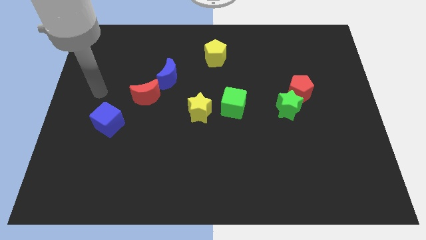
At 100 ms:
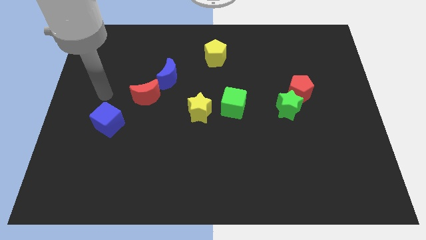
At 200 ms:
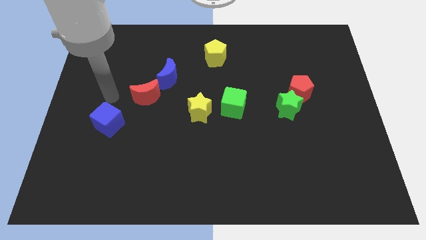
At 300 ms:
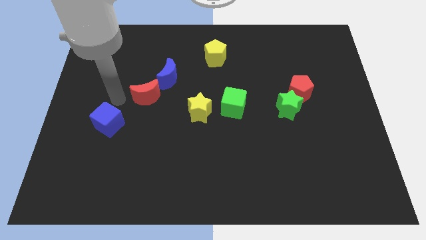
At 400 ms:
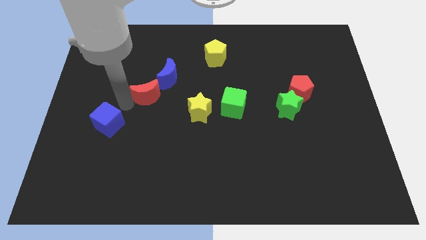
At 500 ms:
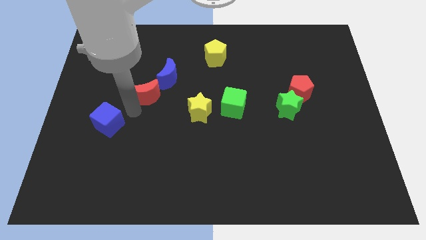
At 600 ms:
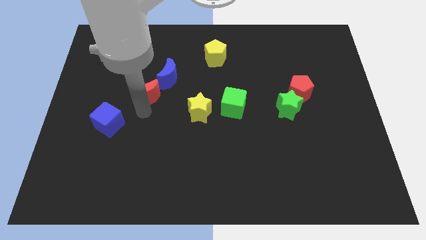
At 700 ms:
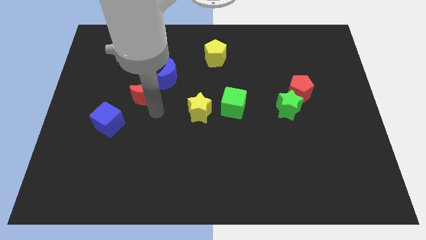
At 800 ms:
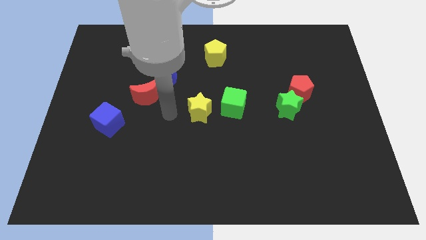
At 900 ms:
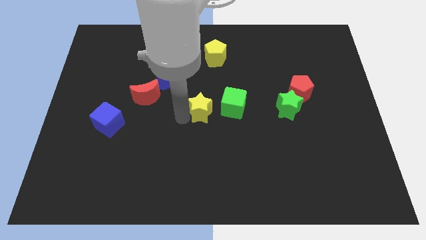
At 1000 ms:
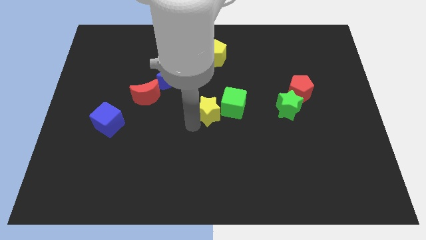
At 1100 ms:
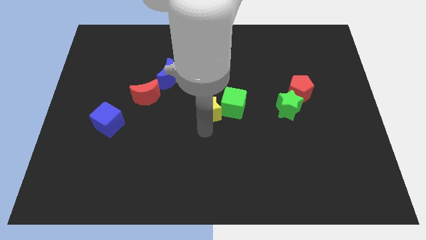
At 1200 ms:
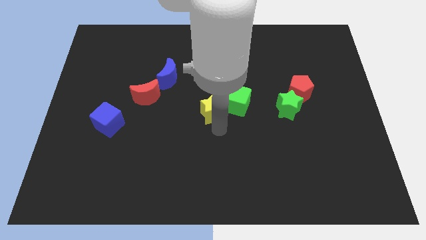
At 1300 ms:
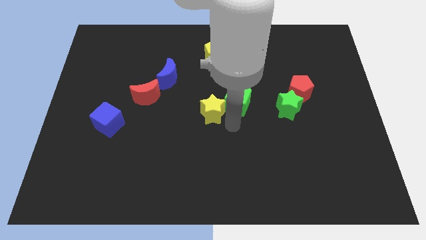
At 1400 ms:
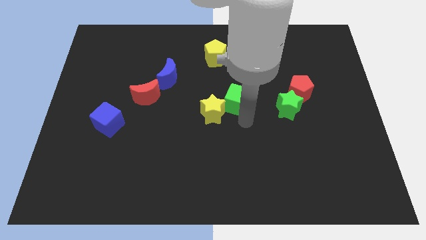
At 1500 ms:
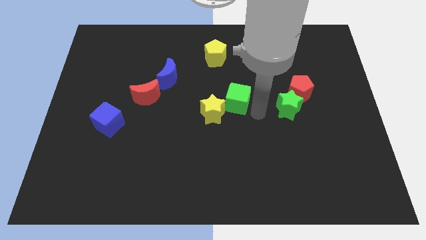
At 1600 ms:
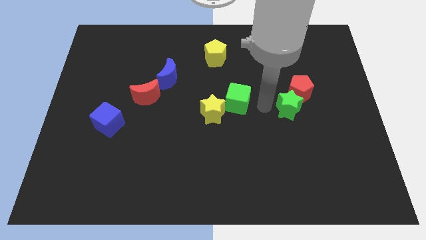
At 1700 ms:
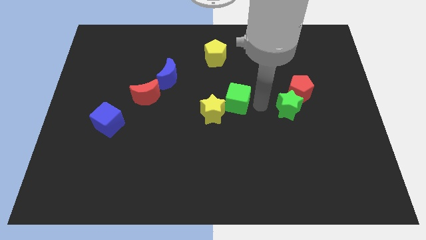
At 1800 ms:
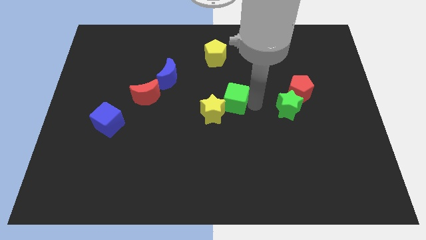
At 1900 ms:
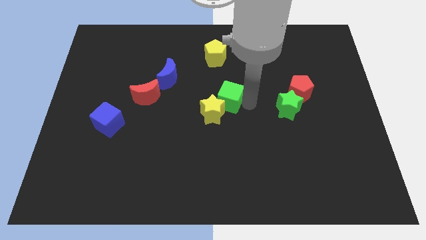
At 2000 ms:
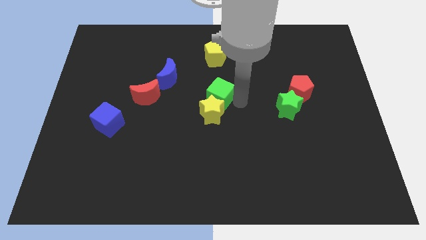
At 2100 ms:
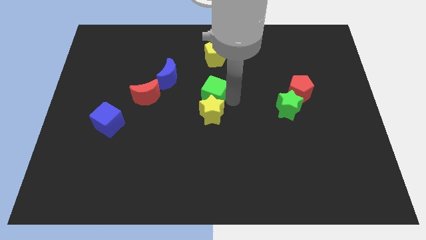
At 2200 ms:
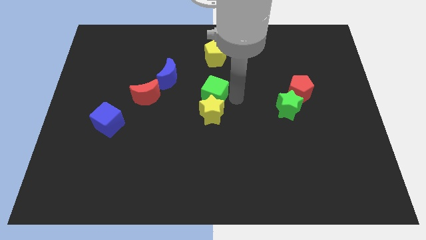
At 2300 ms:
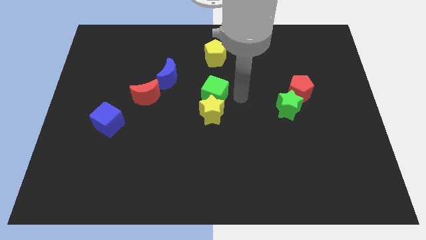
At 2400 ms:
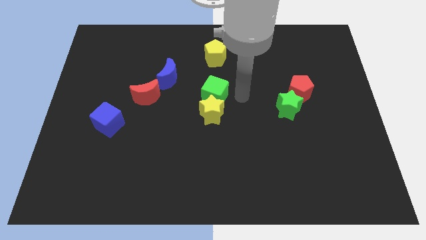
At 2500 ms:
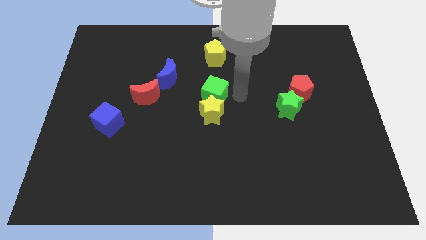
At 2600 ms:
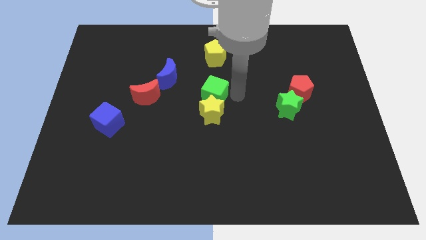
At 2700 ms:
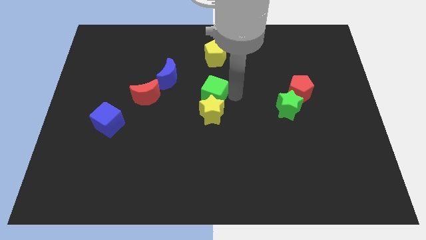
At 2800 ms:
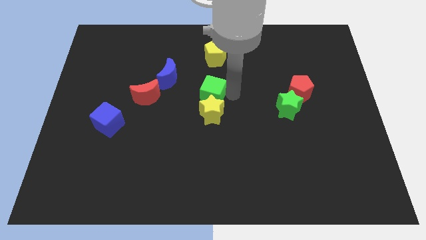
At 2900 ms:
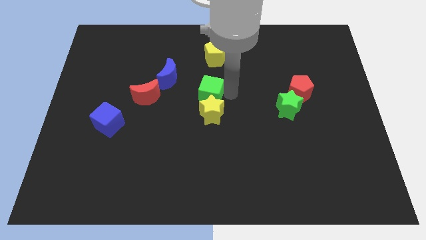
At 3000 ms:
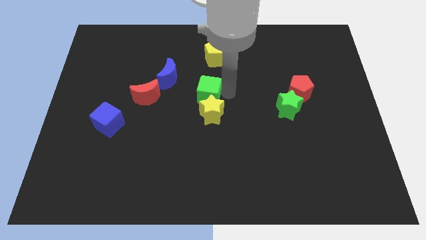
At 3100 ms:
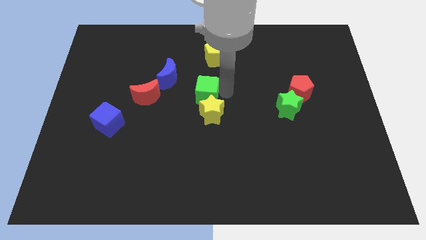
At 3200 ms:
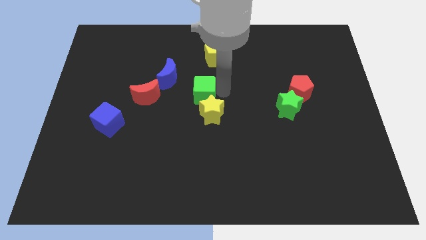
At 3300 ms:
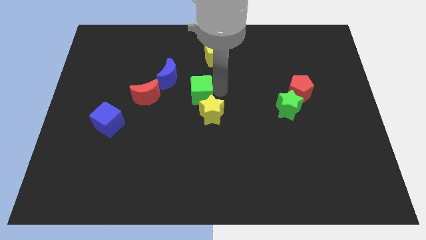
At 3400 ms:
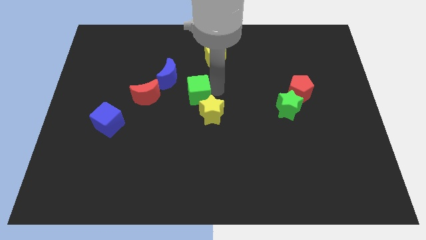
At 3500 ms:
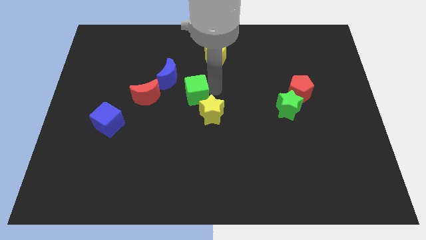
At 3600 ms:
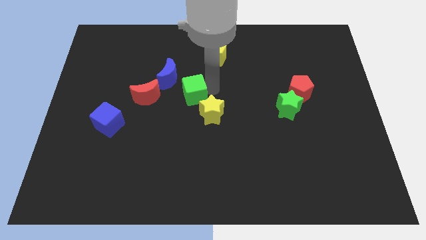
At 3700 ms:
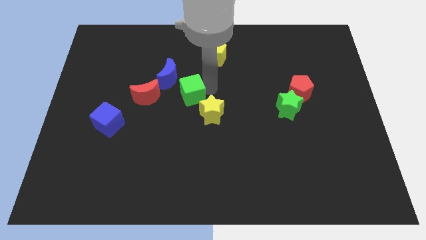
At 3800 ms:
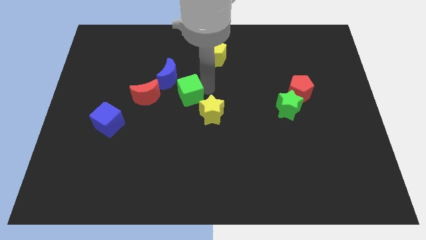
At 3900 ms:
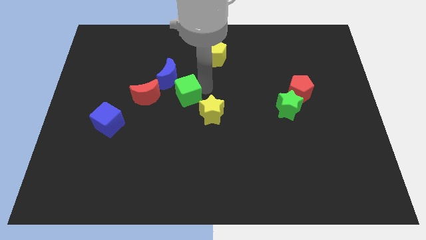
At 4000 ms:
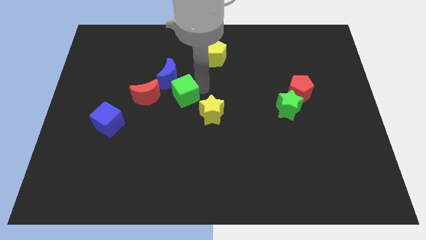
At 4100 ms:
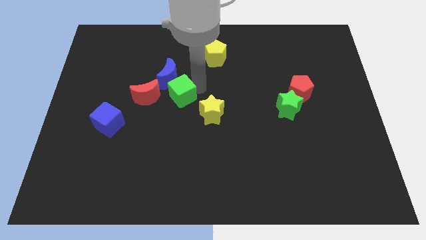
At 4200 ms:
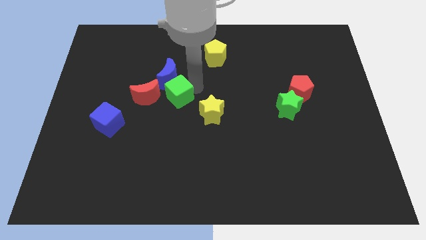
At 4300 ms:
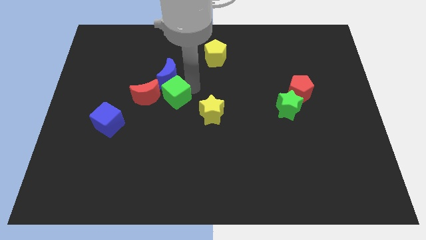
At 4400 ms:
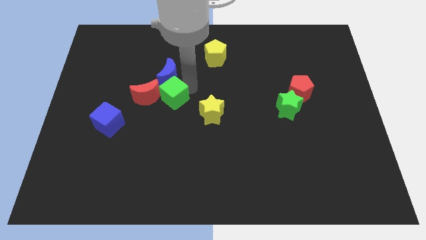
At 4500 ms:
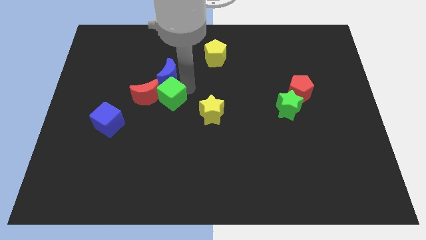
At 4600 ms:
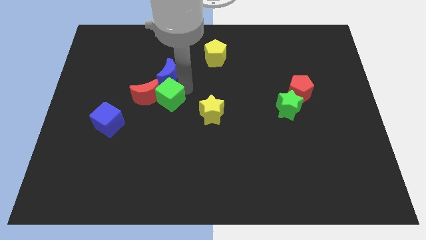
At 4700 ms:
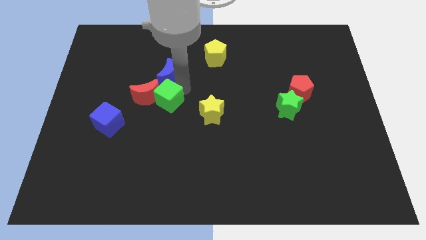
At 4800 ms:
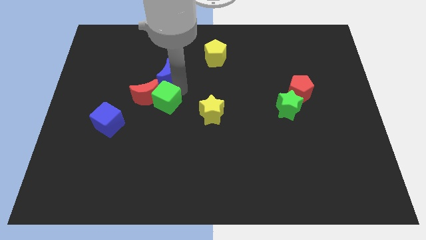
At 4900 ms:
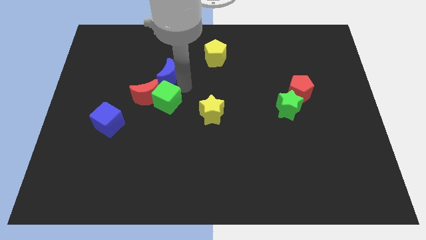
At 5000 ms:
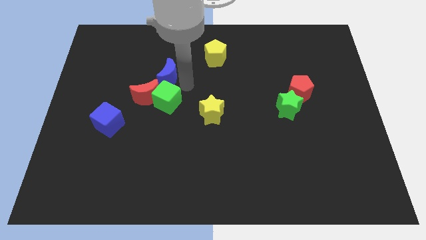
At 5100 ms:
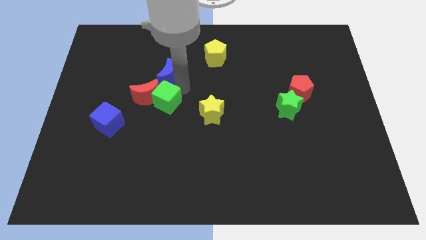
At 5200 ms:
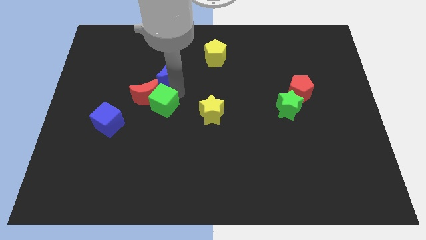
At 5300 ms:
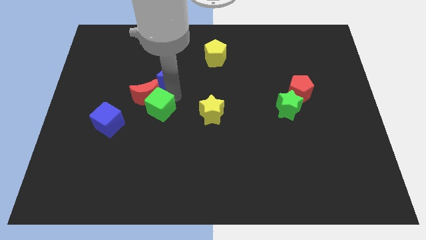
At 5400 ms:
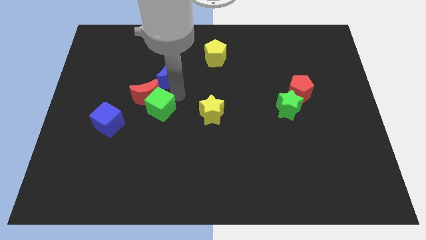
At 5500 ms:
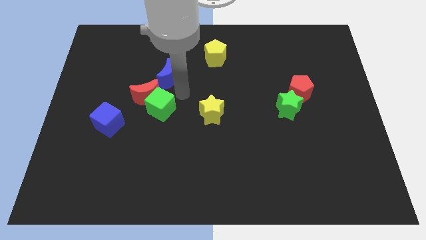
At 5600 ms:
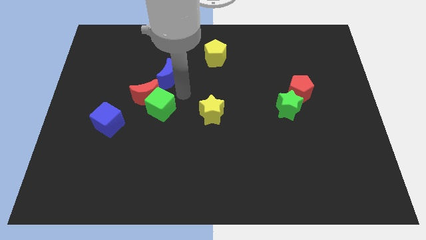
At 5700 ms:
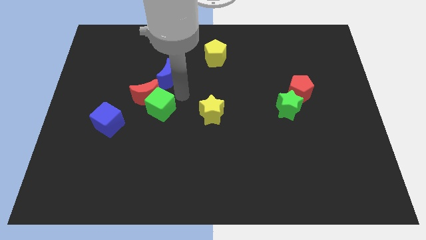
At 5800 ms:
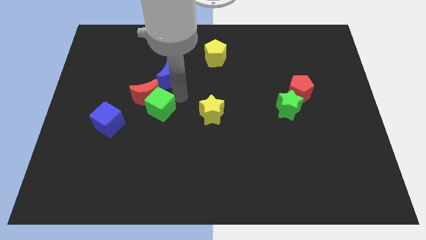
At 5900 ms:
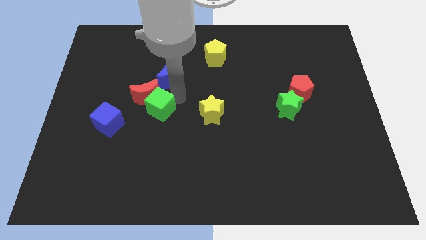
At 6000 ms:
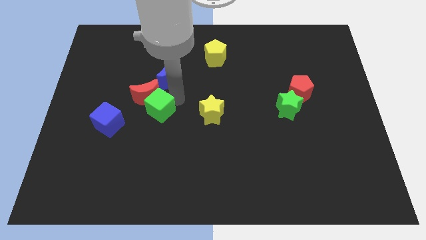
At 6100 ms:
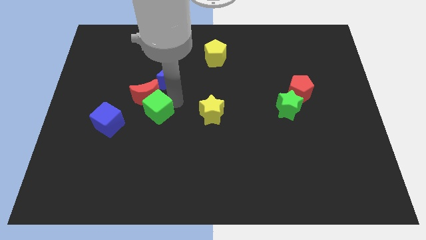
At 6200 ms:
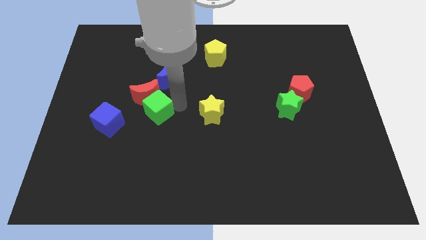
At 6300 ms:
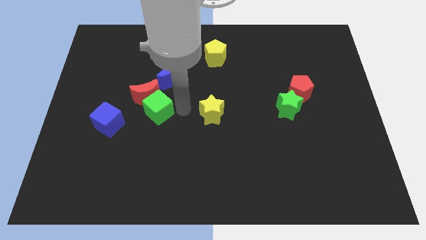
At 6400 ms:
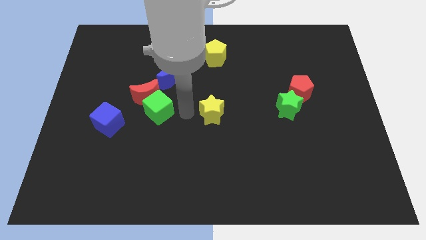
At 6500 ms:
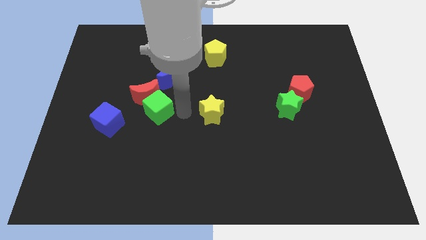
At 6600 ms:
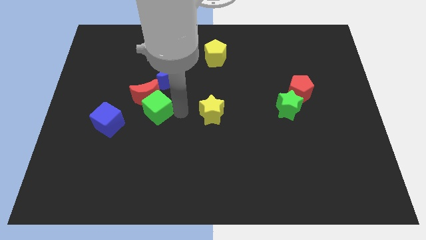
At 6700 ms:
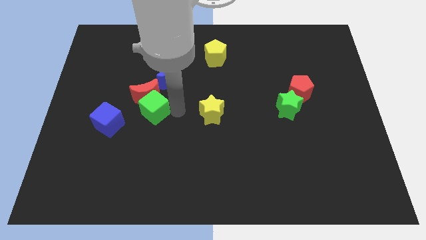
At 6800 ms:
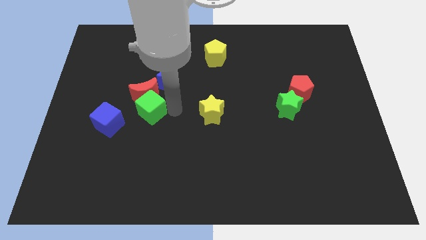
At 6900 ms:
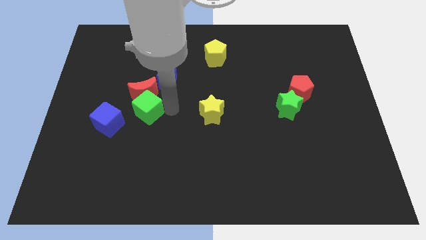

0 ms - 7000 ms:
slide the green cube to the left

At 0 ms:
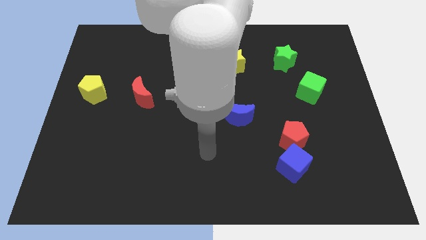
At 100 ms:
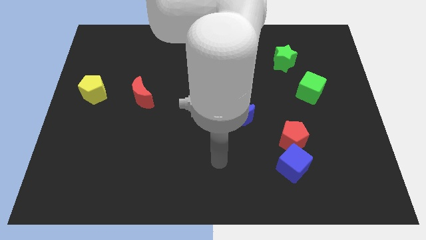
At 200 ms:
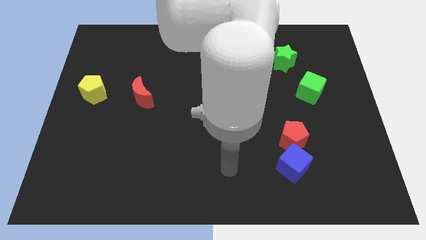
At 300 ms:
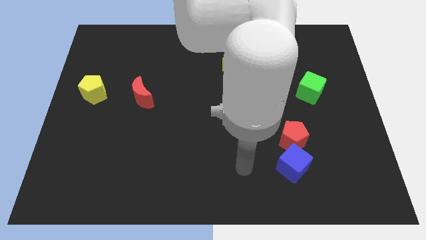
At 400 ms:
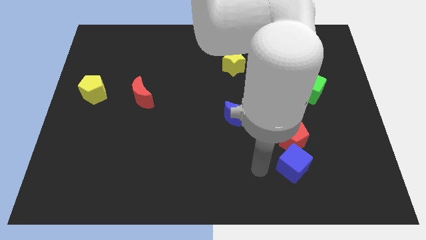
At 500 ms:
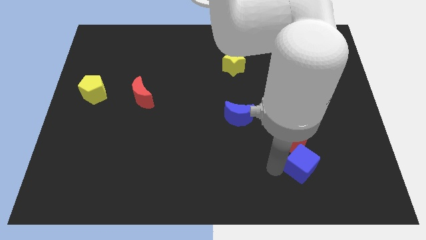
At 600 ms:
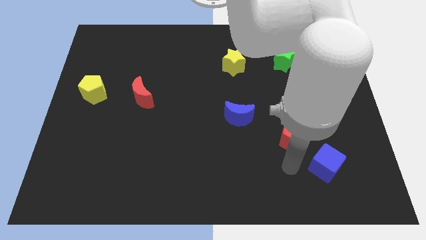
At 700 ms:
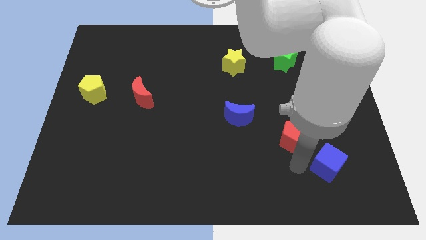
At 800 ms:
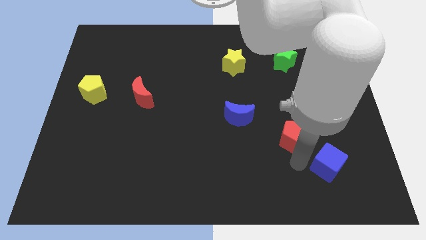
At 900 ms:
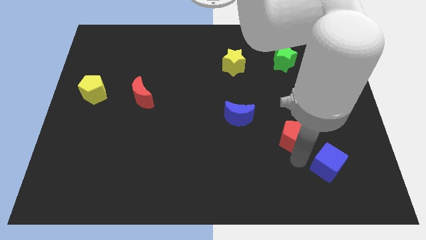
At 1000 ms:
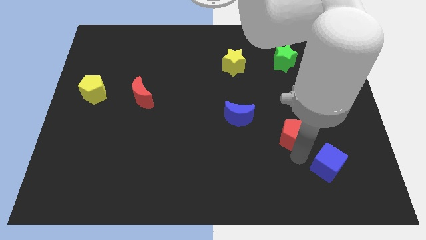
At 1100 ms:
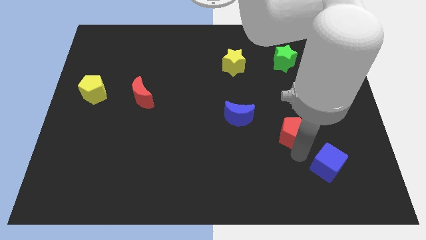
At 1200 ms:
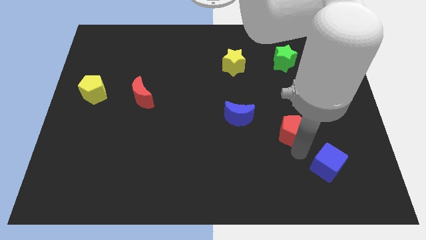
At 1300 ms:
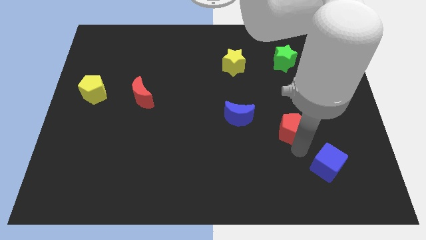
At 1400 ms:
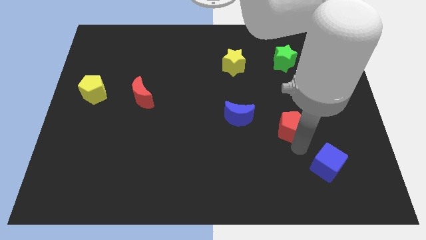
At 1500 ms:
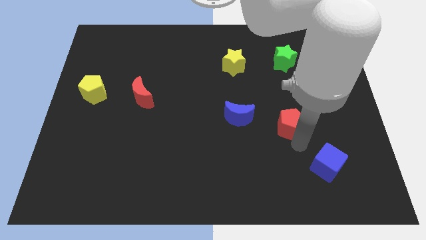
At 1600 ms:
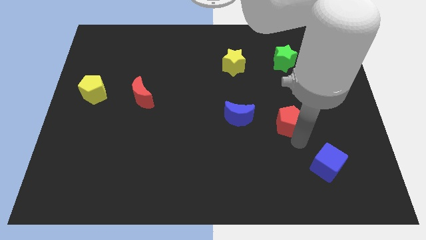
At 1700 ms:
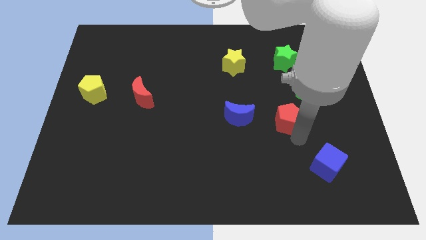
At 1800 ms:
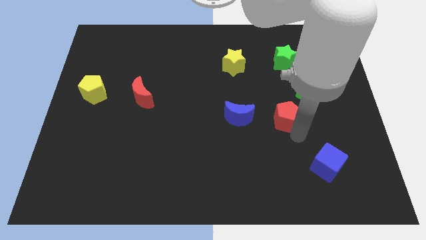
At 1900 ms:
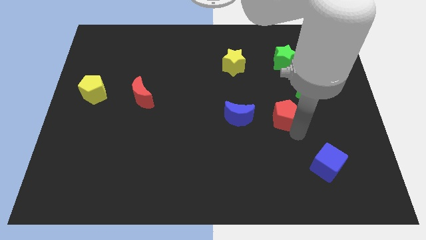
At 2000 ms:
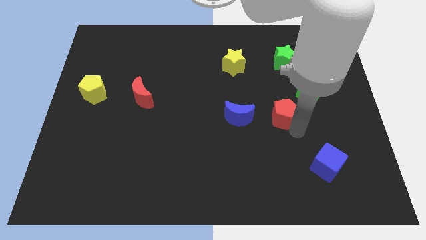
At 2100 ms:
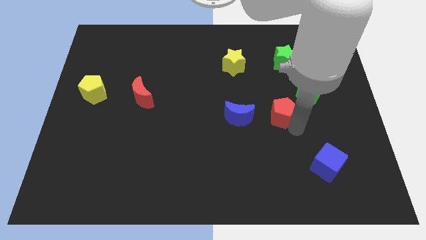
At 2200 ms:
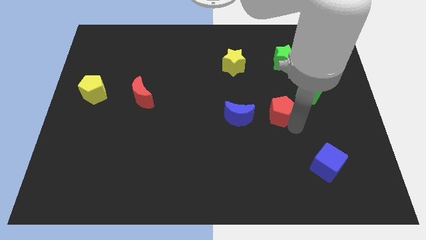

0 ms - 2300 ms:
move the red pentagon up a little bit
